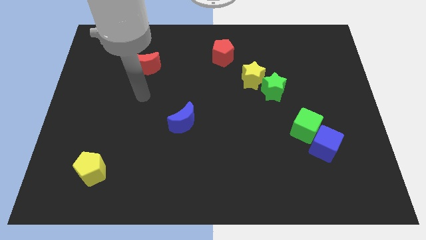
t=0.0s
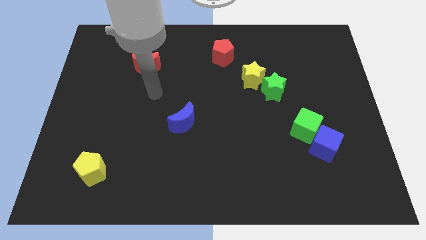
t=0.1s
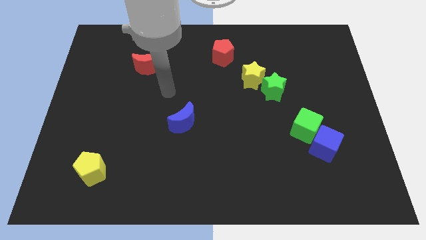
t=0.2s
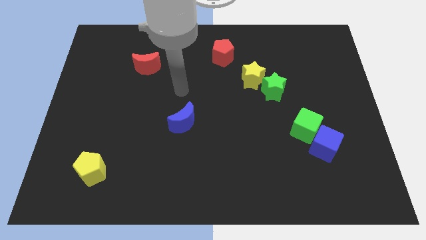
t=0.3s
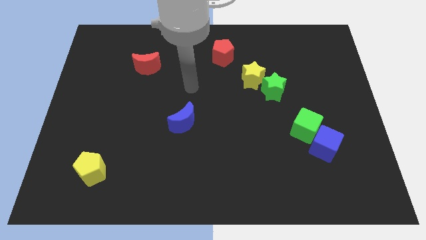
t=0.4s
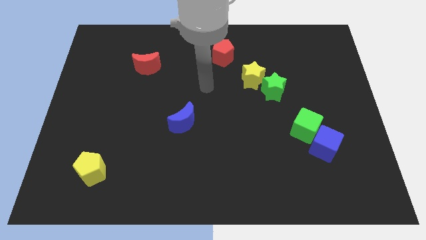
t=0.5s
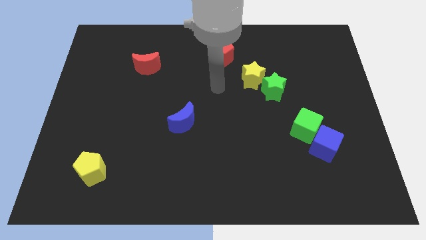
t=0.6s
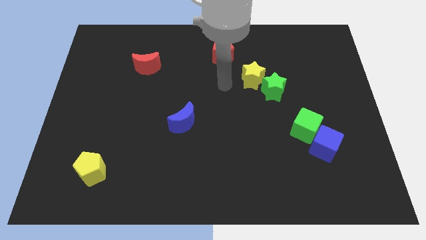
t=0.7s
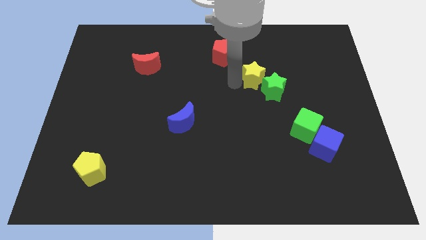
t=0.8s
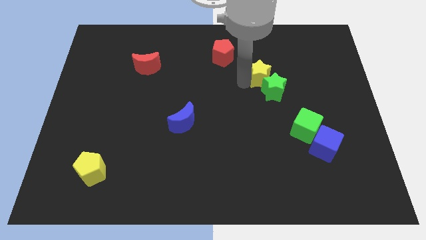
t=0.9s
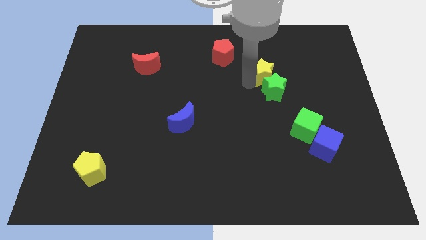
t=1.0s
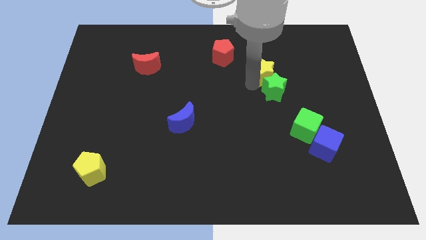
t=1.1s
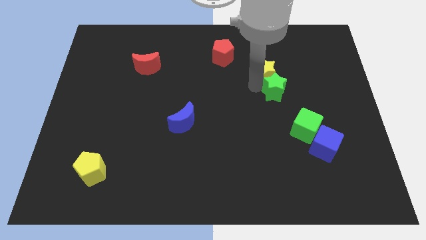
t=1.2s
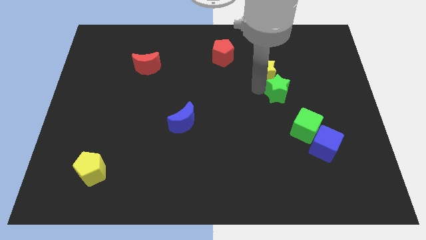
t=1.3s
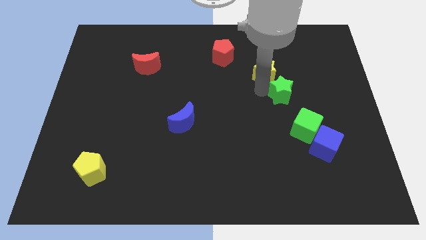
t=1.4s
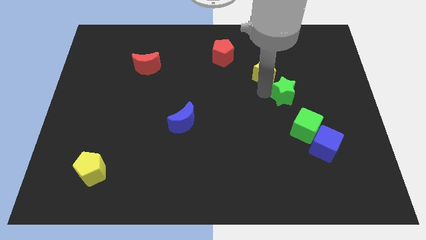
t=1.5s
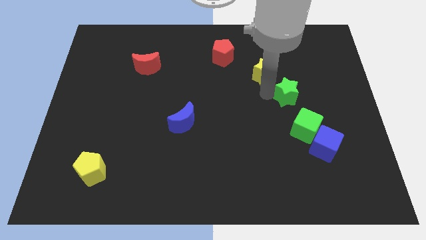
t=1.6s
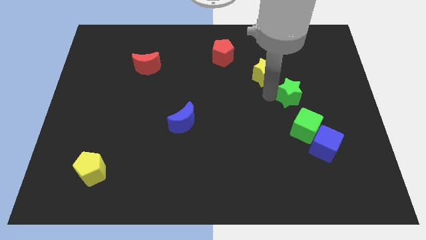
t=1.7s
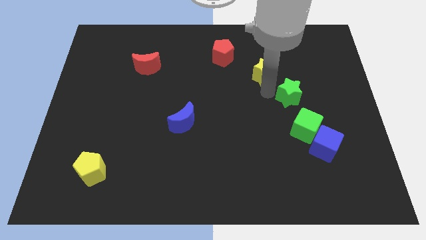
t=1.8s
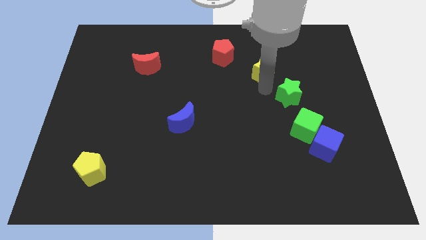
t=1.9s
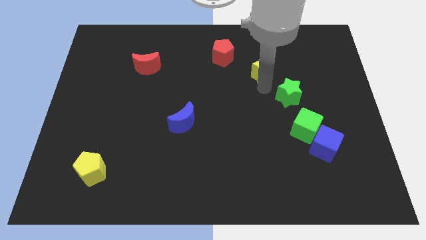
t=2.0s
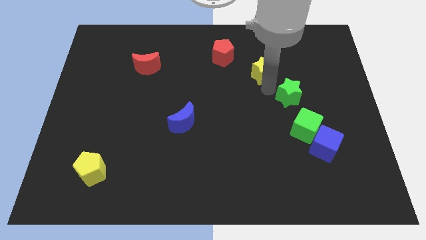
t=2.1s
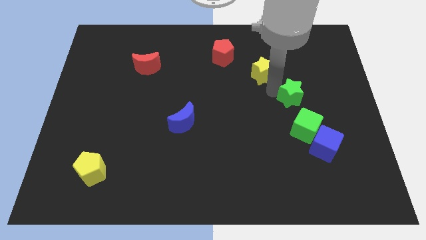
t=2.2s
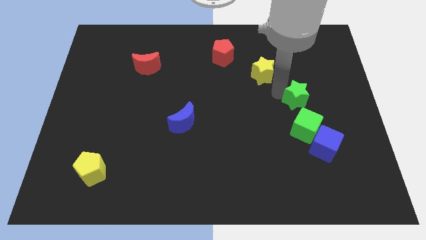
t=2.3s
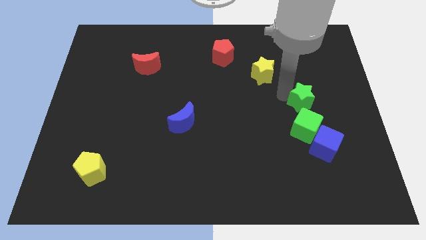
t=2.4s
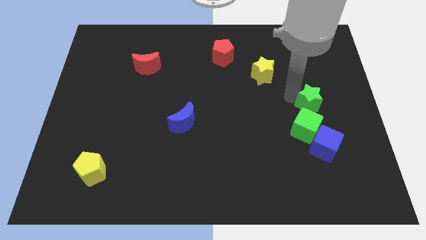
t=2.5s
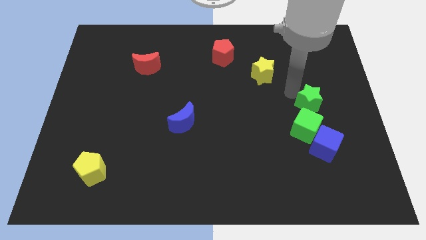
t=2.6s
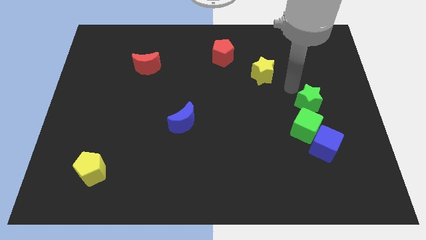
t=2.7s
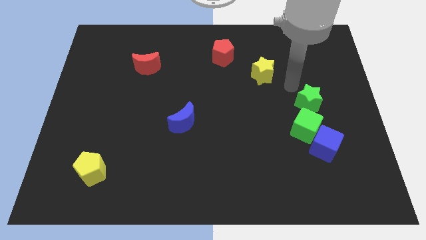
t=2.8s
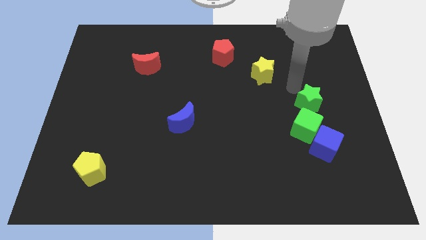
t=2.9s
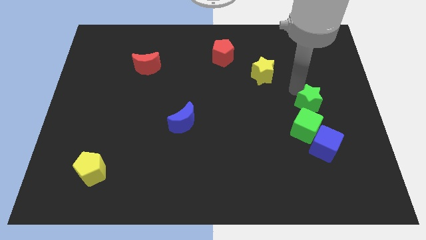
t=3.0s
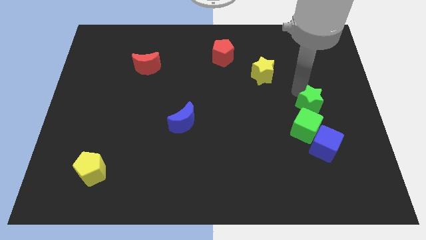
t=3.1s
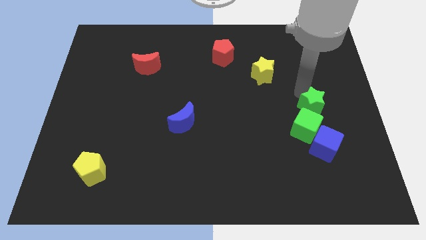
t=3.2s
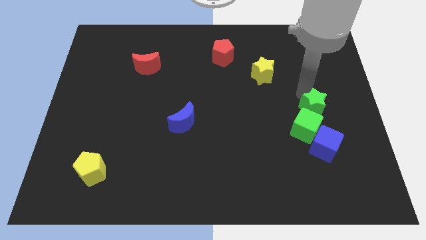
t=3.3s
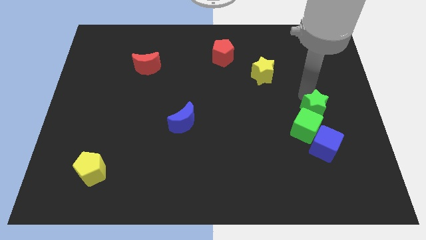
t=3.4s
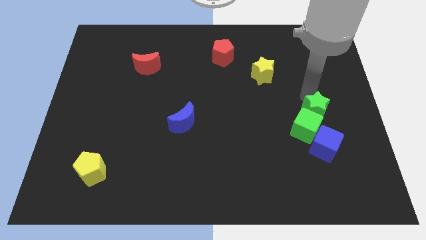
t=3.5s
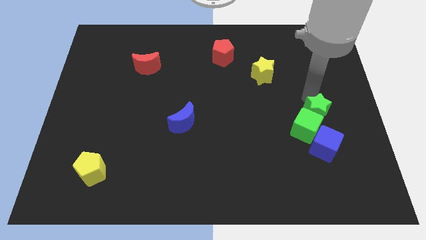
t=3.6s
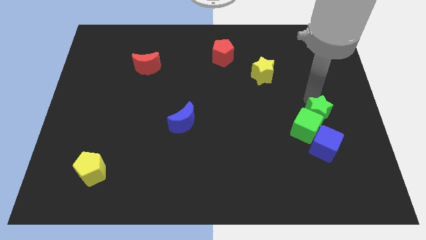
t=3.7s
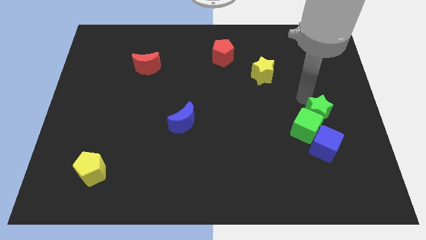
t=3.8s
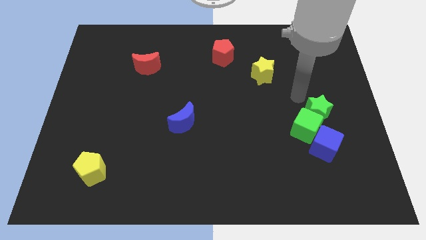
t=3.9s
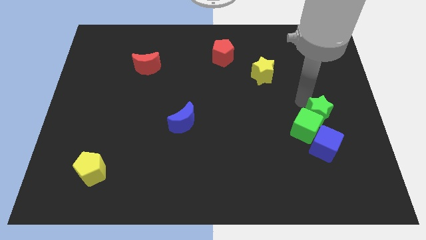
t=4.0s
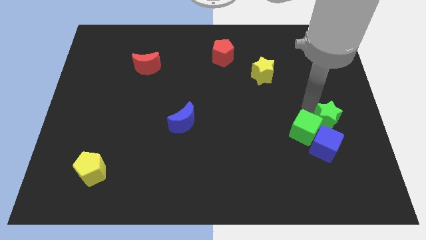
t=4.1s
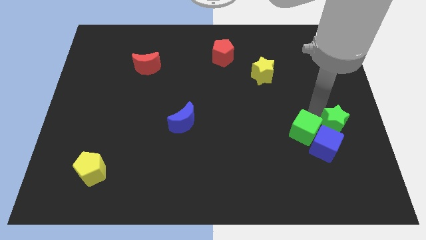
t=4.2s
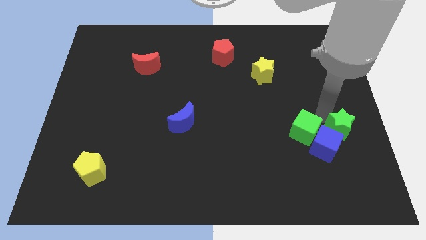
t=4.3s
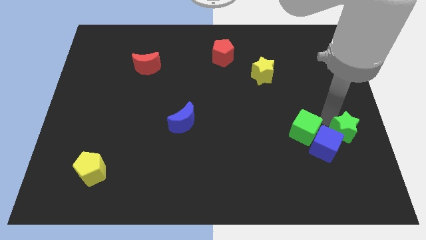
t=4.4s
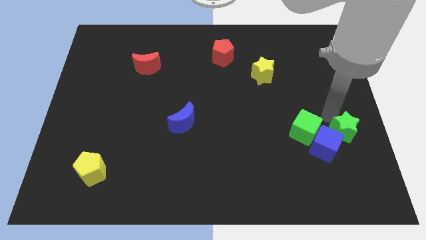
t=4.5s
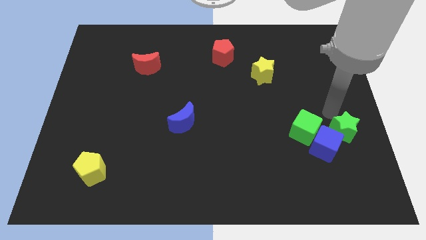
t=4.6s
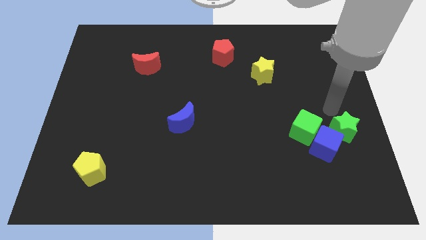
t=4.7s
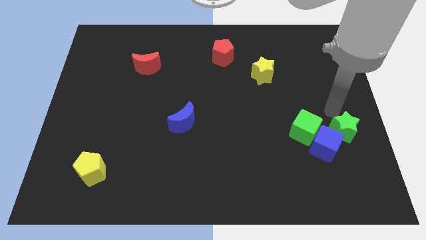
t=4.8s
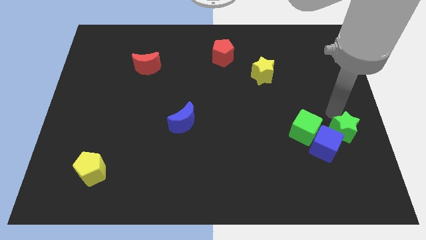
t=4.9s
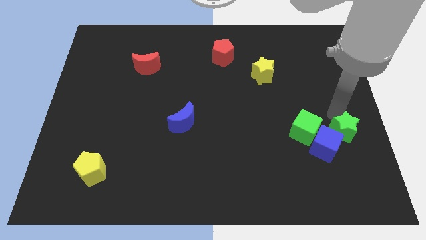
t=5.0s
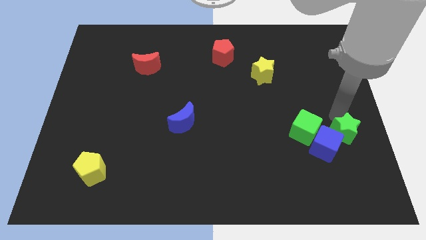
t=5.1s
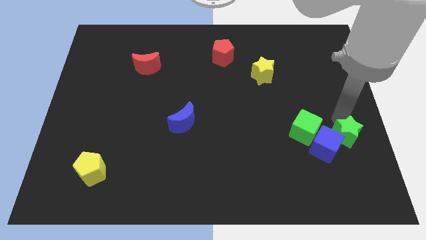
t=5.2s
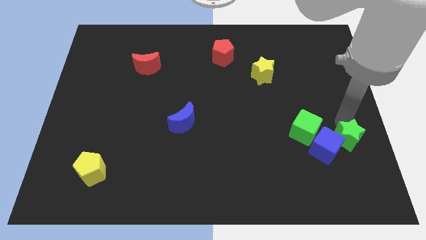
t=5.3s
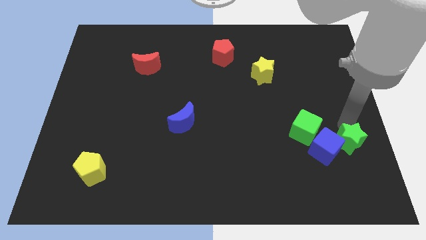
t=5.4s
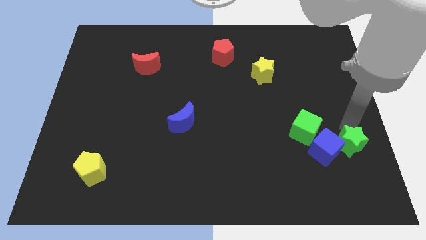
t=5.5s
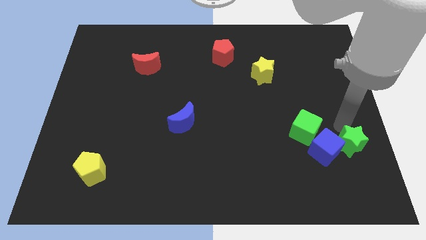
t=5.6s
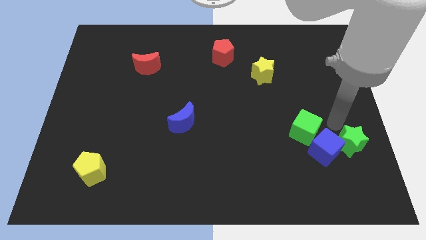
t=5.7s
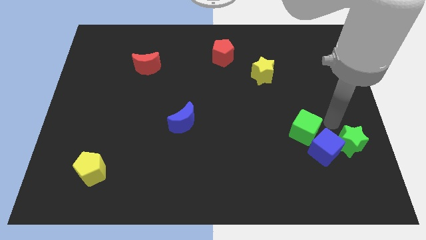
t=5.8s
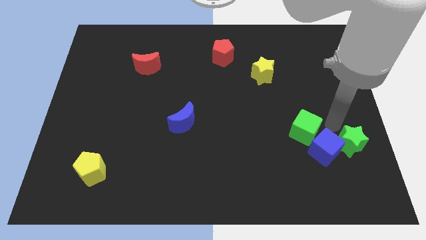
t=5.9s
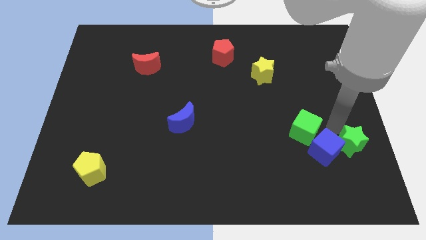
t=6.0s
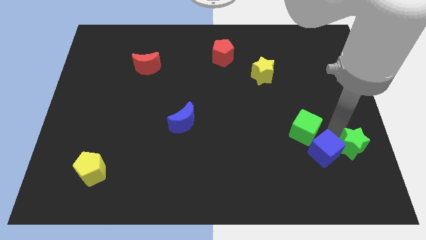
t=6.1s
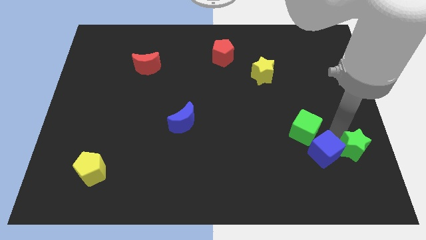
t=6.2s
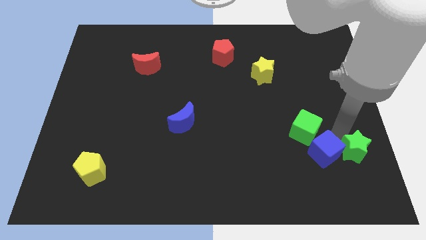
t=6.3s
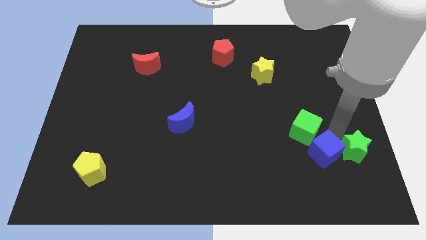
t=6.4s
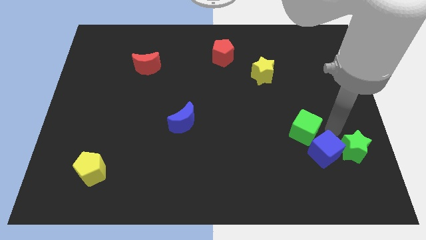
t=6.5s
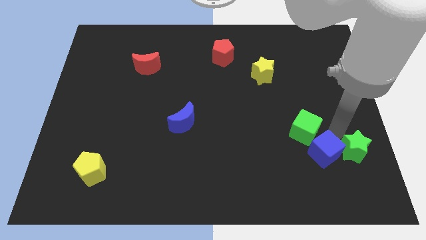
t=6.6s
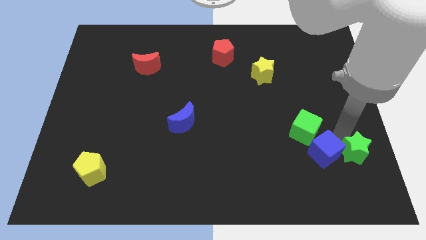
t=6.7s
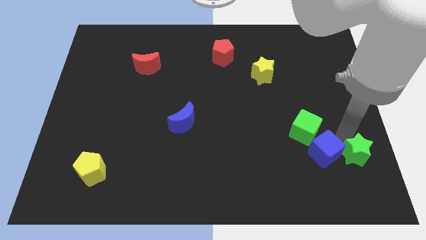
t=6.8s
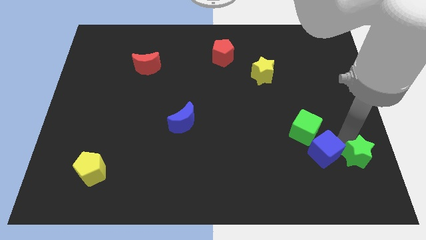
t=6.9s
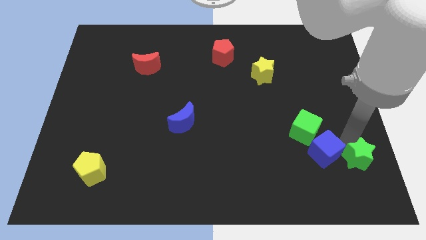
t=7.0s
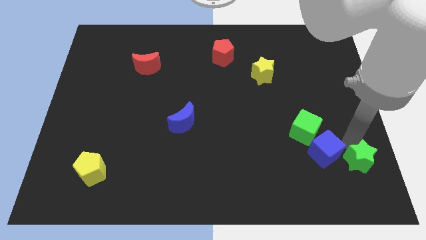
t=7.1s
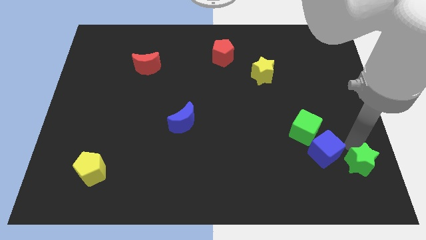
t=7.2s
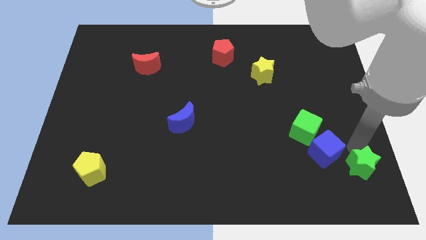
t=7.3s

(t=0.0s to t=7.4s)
put the green star to the bottom right

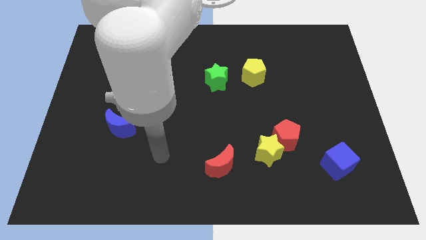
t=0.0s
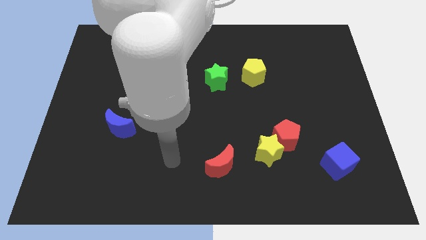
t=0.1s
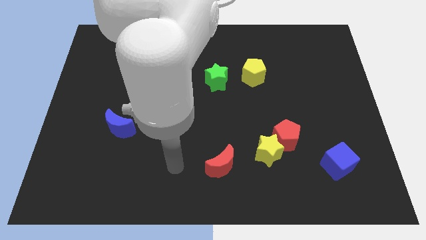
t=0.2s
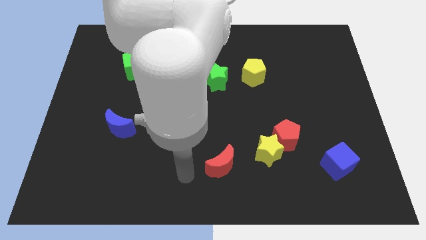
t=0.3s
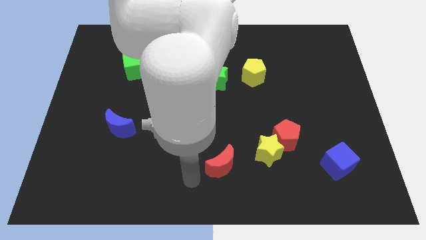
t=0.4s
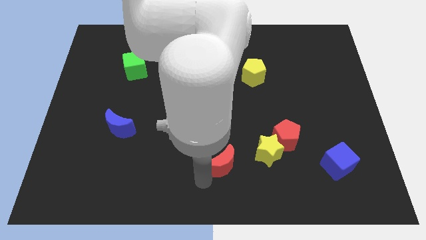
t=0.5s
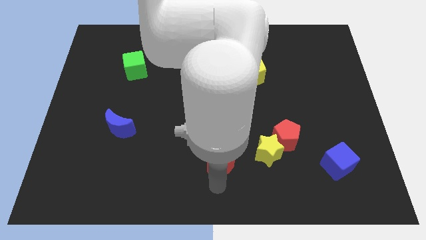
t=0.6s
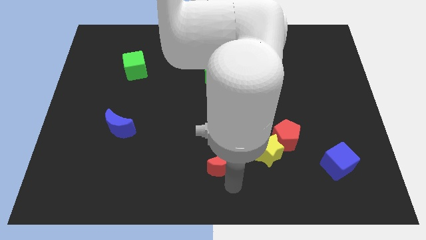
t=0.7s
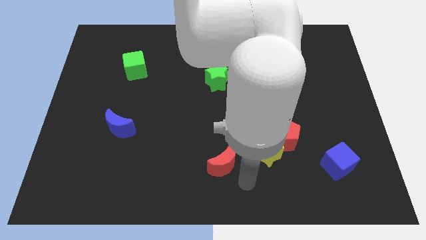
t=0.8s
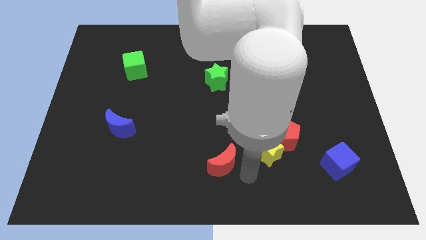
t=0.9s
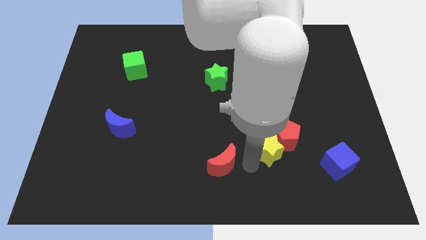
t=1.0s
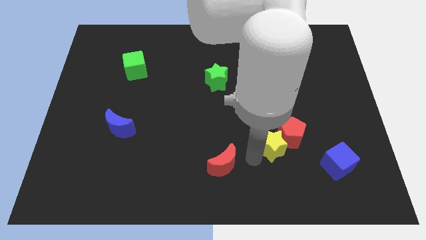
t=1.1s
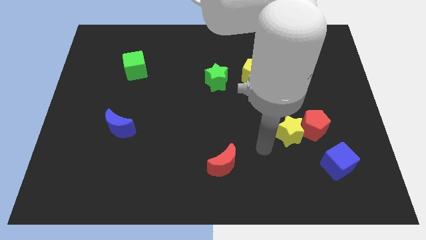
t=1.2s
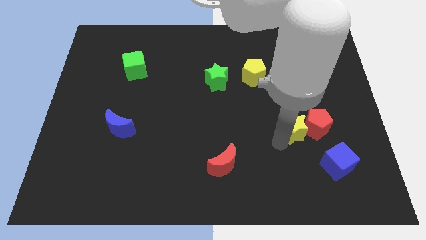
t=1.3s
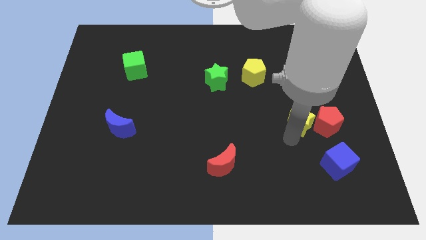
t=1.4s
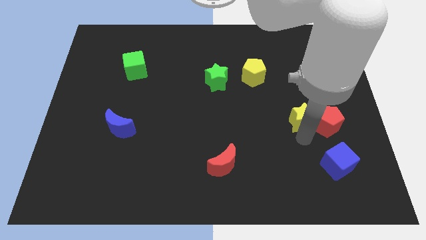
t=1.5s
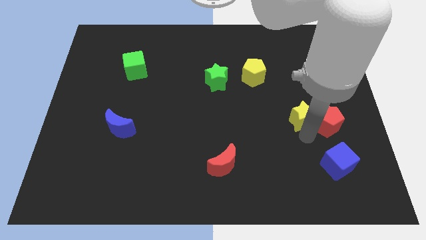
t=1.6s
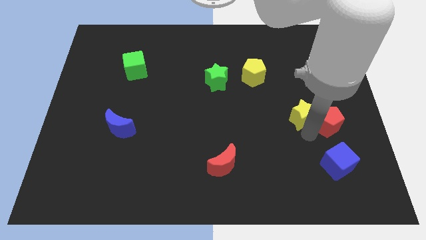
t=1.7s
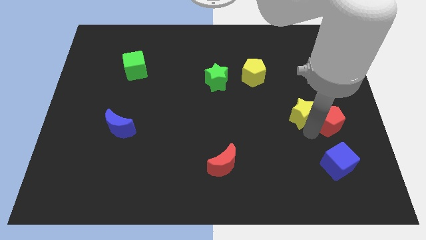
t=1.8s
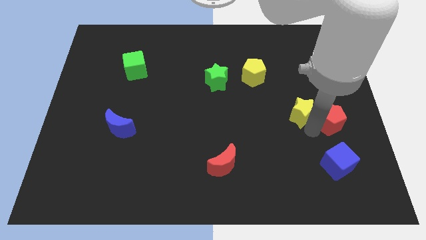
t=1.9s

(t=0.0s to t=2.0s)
slide the red pentagon to the center right
